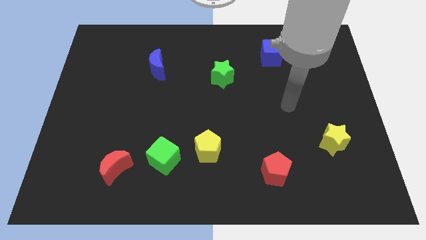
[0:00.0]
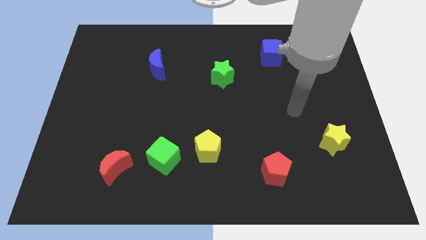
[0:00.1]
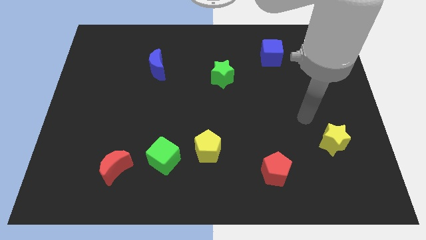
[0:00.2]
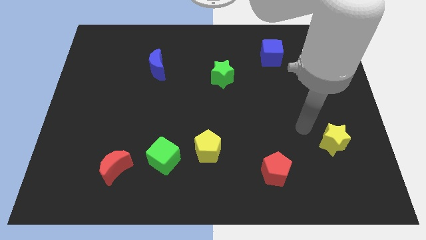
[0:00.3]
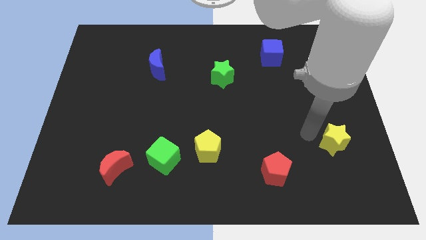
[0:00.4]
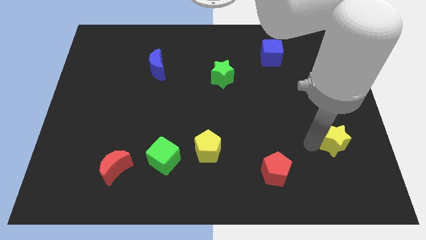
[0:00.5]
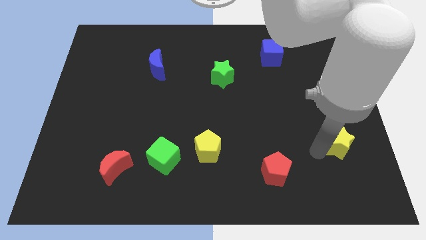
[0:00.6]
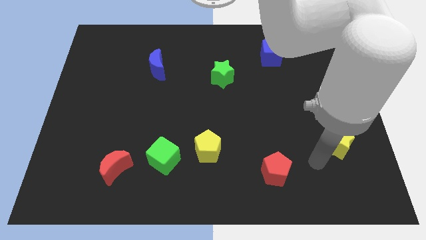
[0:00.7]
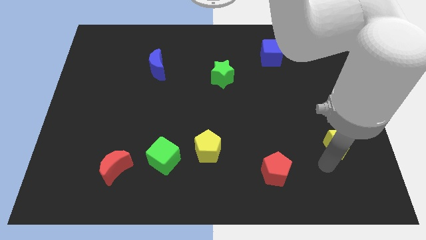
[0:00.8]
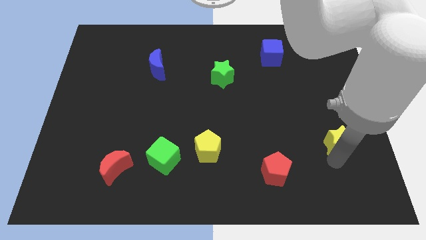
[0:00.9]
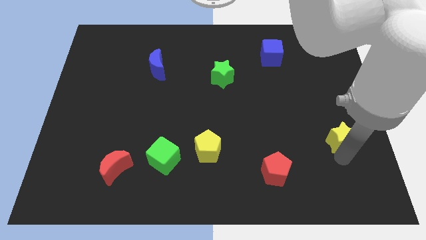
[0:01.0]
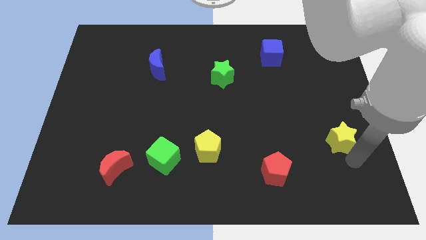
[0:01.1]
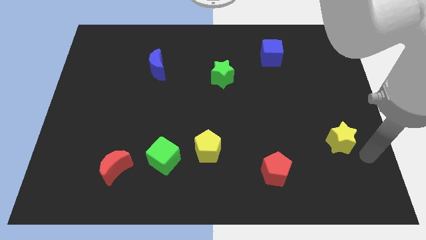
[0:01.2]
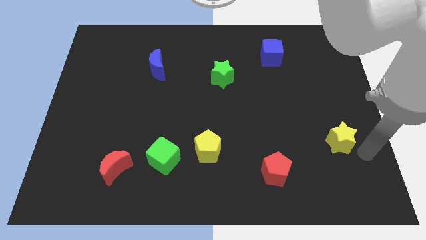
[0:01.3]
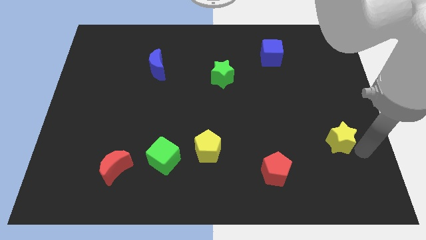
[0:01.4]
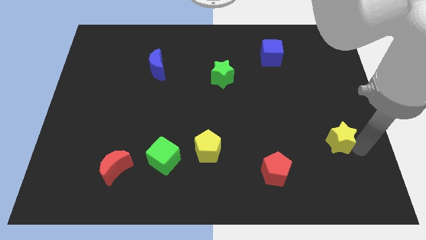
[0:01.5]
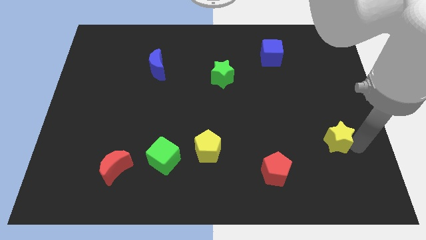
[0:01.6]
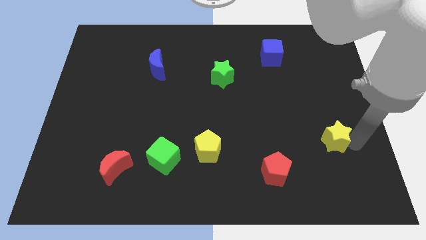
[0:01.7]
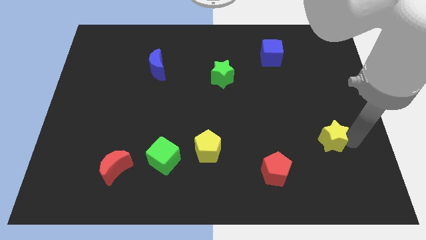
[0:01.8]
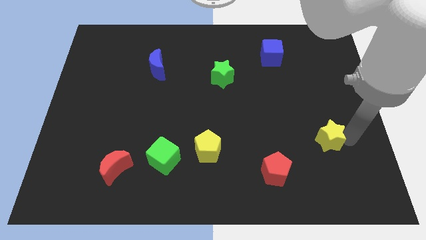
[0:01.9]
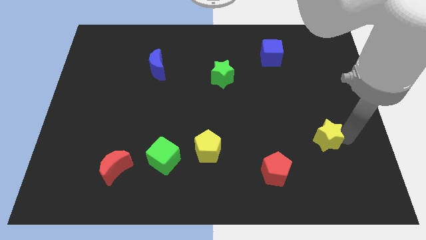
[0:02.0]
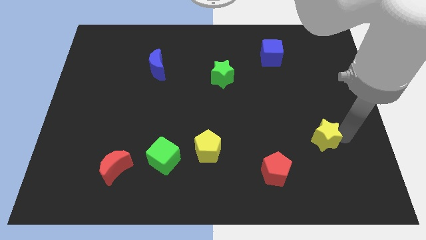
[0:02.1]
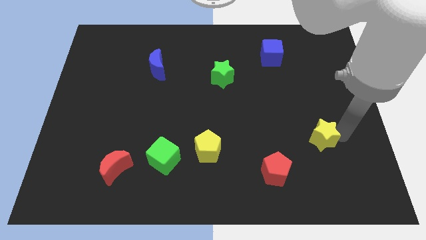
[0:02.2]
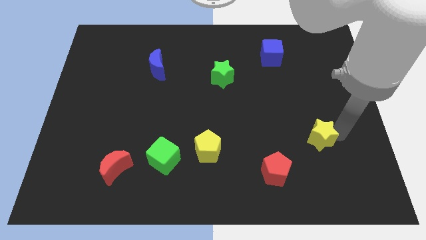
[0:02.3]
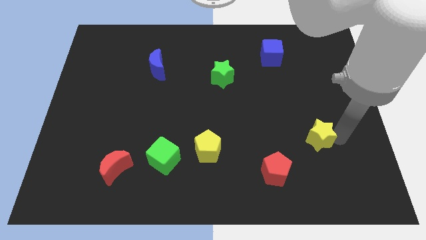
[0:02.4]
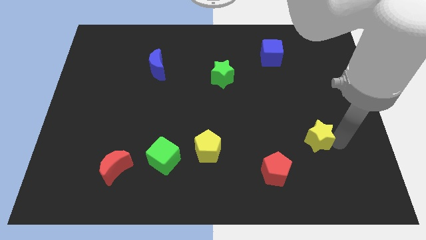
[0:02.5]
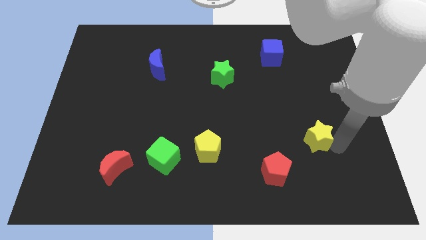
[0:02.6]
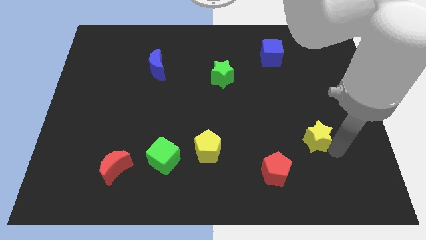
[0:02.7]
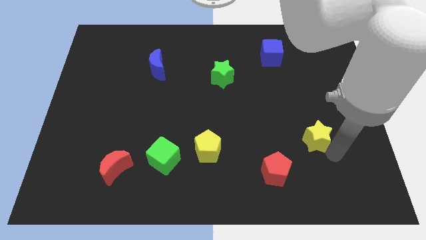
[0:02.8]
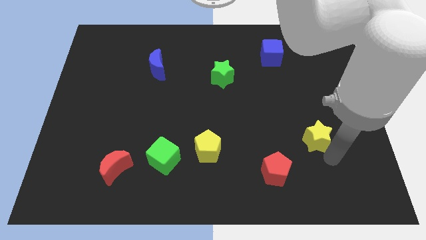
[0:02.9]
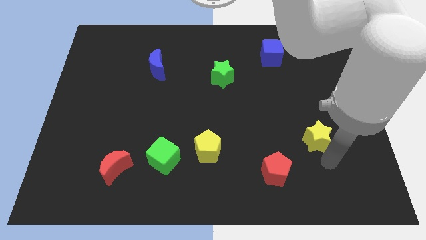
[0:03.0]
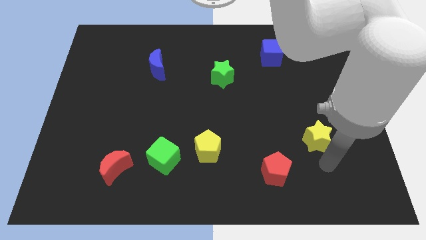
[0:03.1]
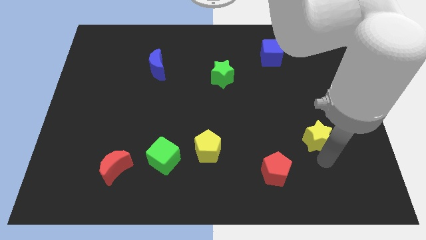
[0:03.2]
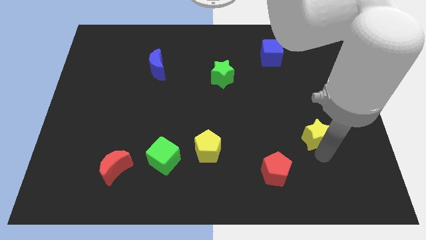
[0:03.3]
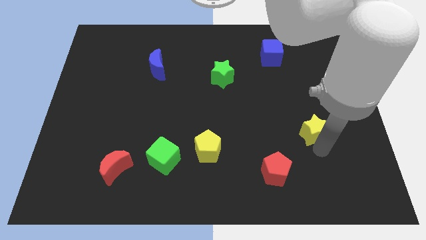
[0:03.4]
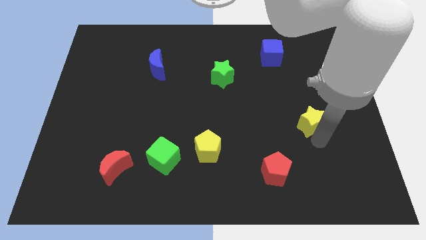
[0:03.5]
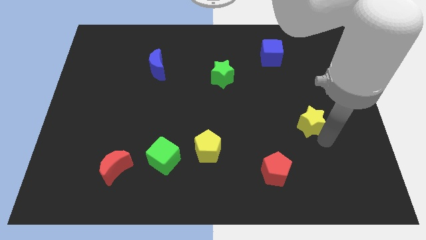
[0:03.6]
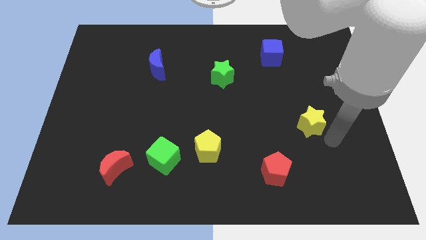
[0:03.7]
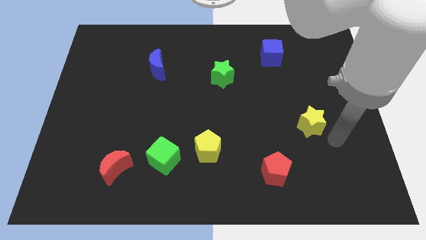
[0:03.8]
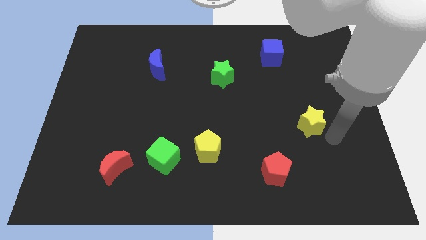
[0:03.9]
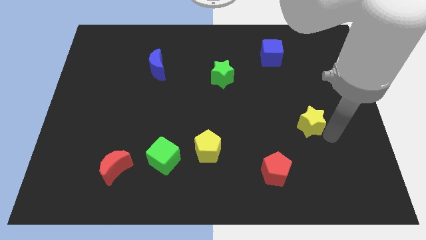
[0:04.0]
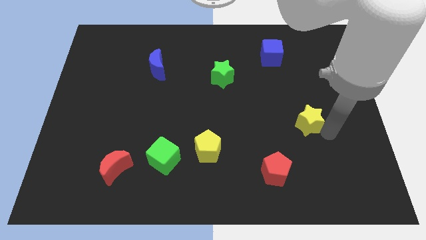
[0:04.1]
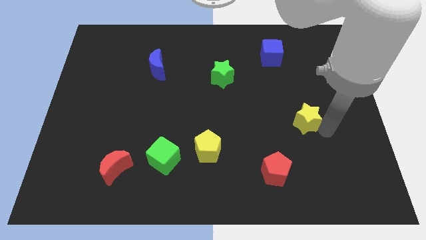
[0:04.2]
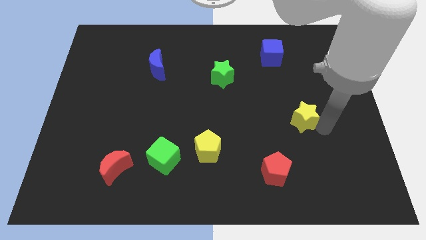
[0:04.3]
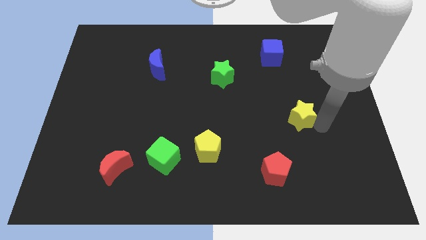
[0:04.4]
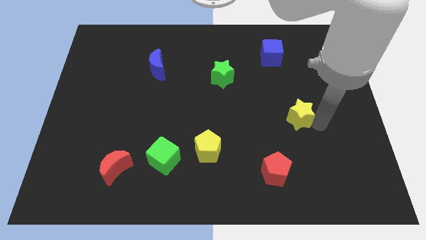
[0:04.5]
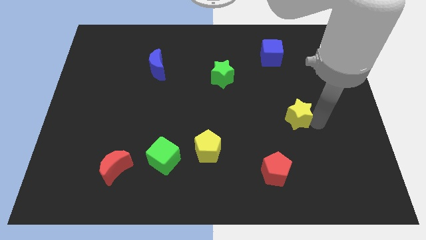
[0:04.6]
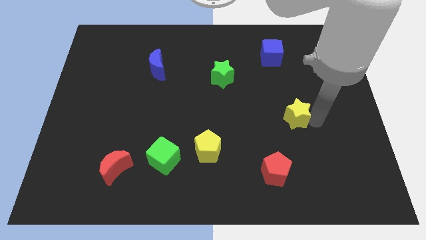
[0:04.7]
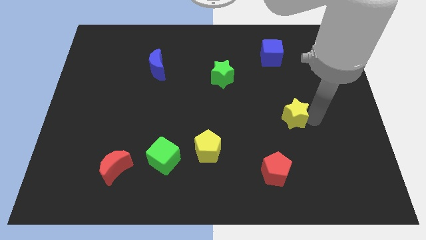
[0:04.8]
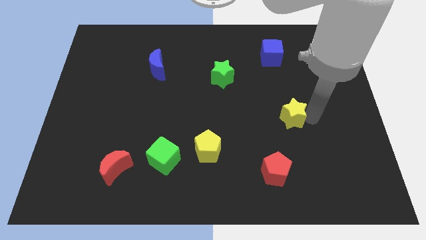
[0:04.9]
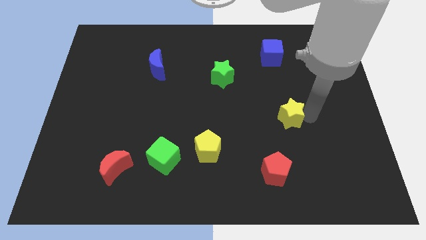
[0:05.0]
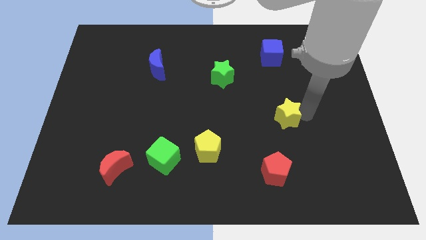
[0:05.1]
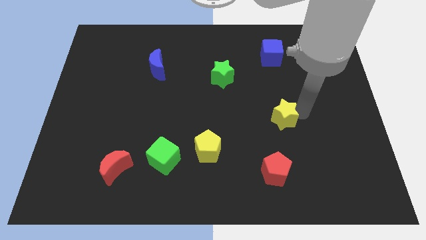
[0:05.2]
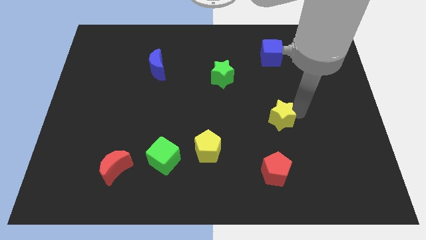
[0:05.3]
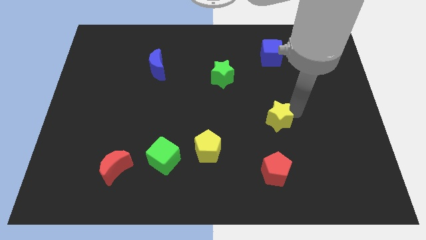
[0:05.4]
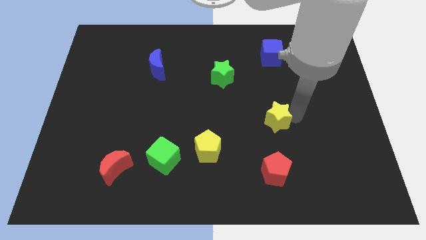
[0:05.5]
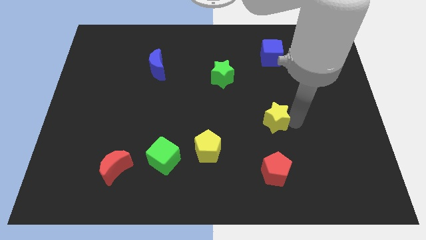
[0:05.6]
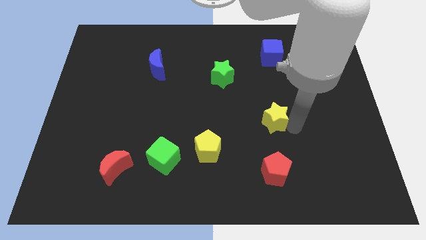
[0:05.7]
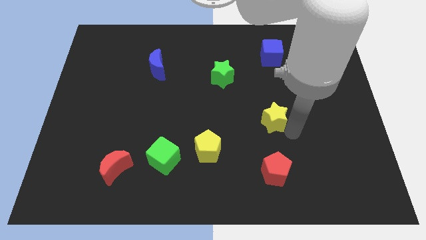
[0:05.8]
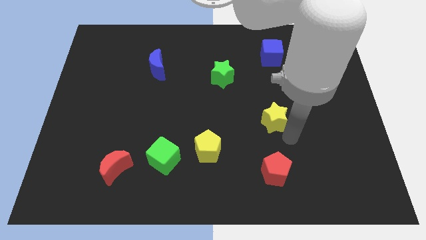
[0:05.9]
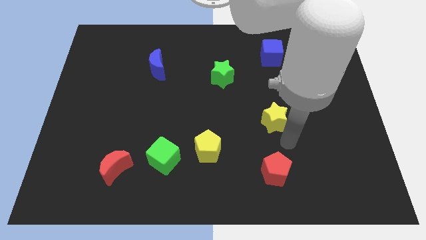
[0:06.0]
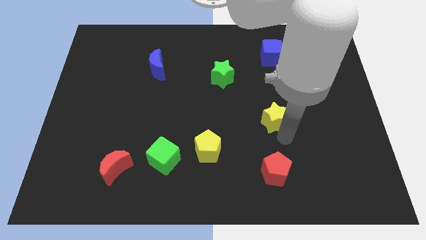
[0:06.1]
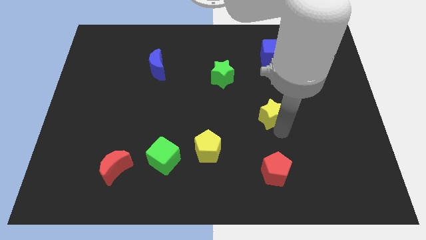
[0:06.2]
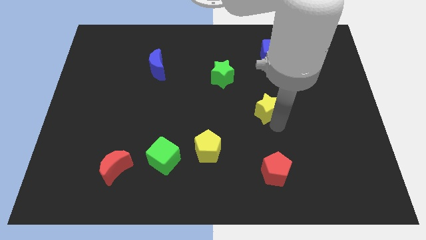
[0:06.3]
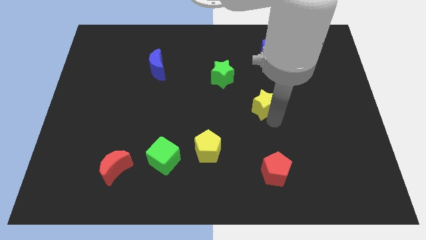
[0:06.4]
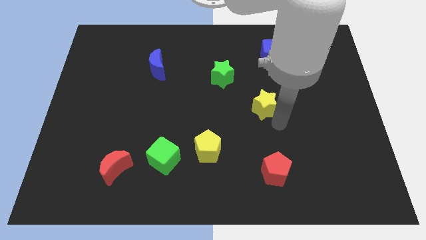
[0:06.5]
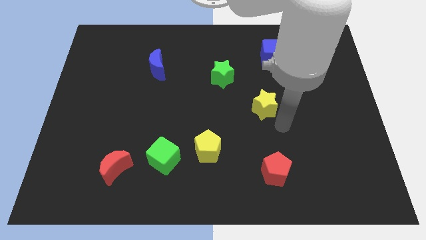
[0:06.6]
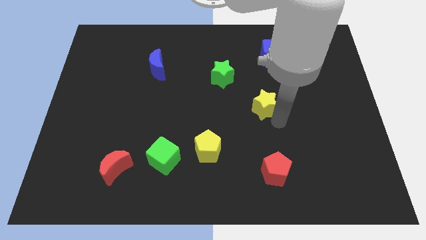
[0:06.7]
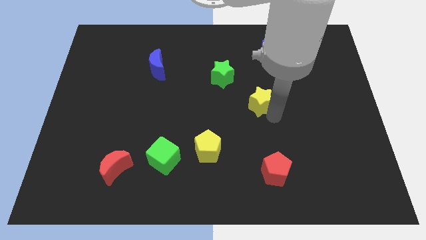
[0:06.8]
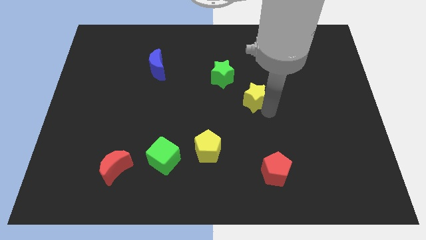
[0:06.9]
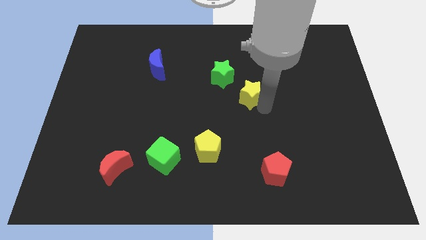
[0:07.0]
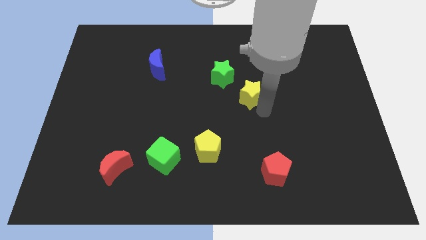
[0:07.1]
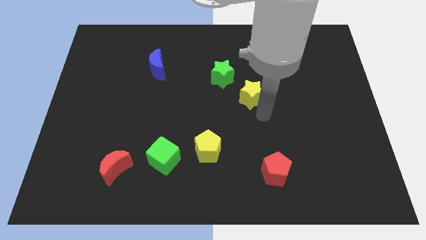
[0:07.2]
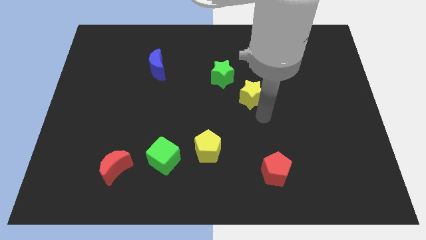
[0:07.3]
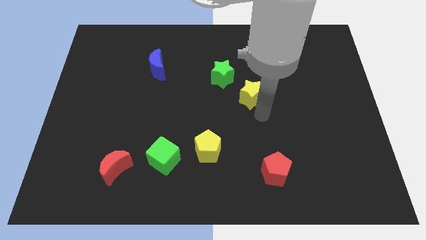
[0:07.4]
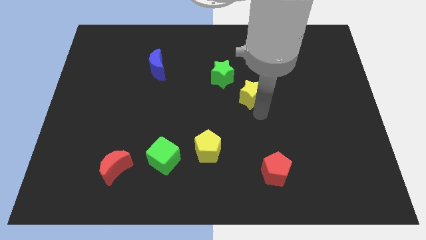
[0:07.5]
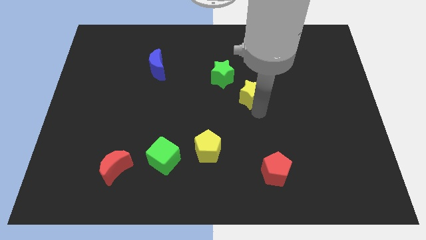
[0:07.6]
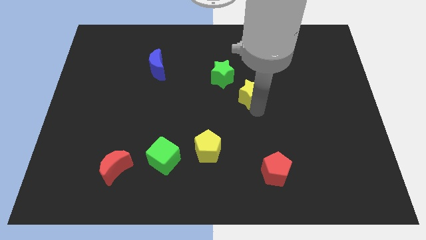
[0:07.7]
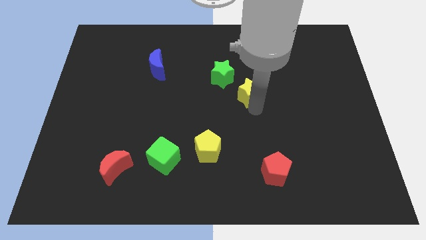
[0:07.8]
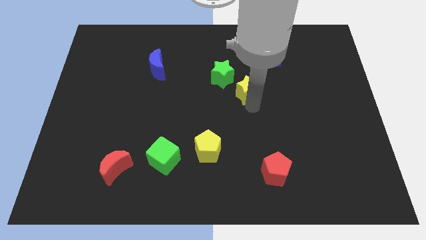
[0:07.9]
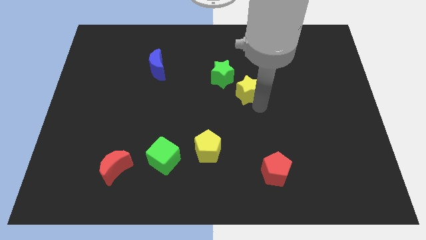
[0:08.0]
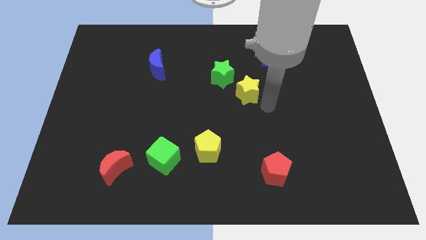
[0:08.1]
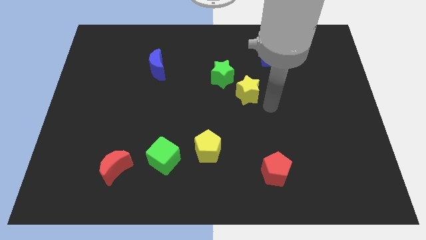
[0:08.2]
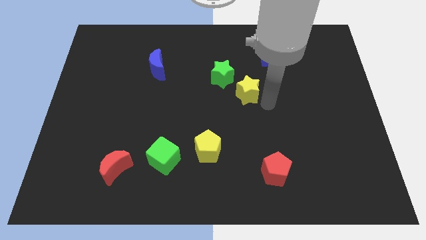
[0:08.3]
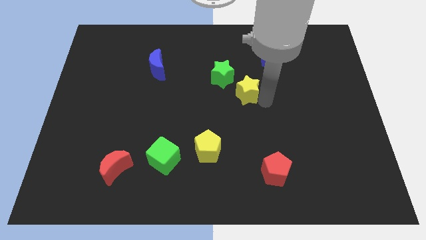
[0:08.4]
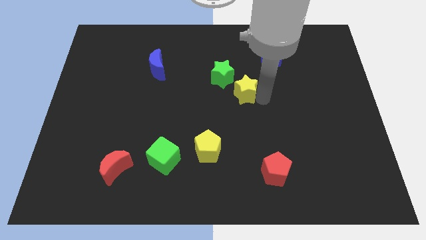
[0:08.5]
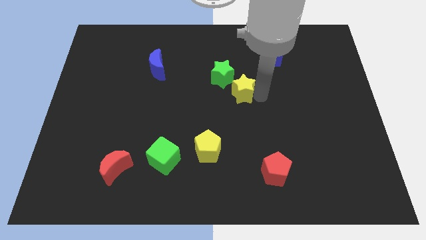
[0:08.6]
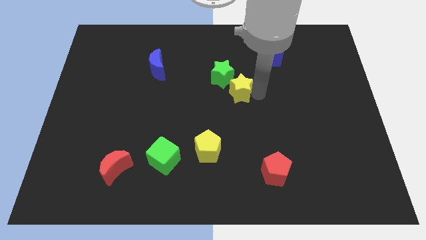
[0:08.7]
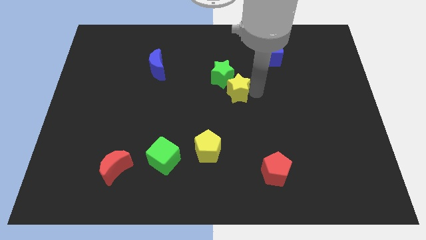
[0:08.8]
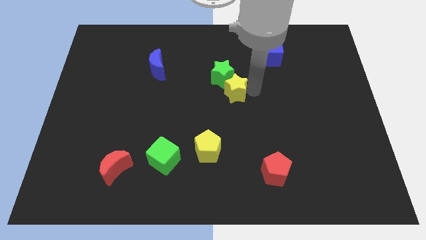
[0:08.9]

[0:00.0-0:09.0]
slide the yellow star close to the green star
